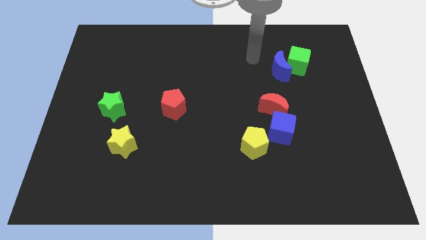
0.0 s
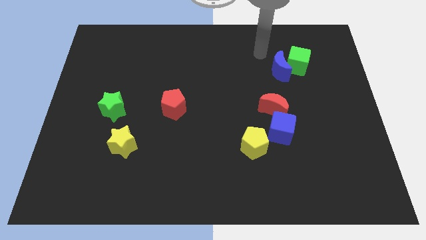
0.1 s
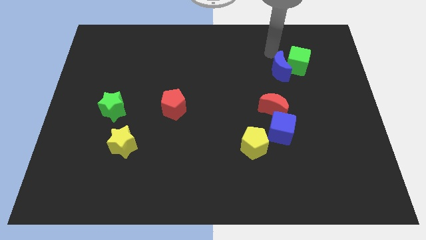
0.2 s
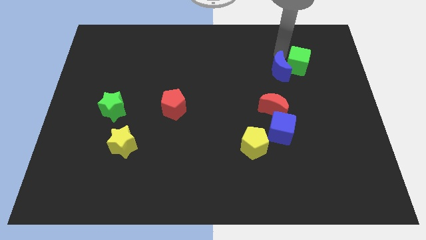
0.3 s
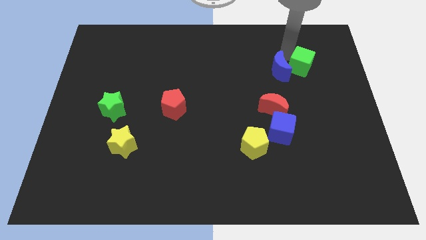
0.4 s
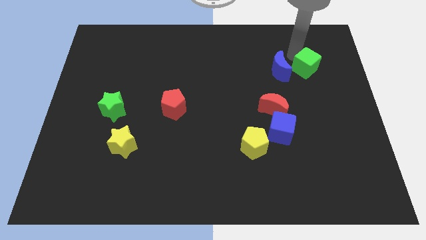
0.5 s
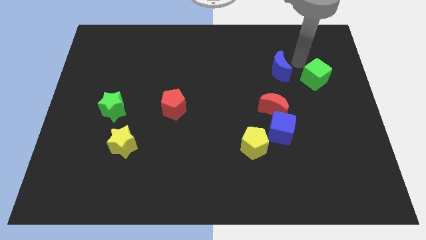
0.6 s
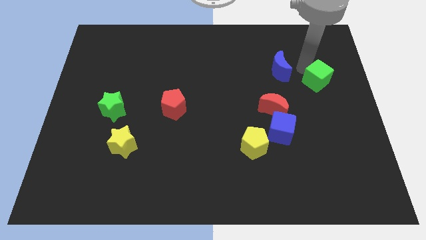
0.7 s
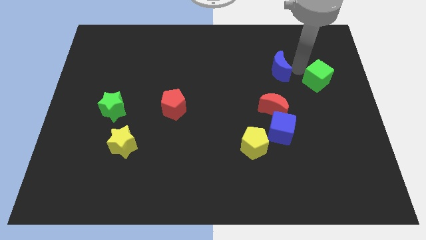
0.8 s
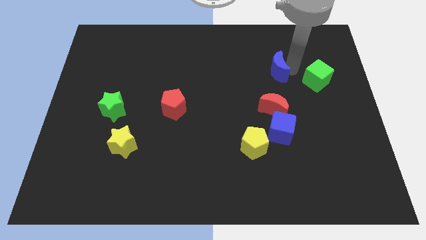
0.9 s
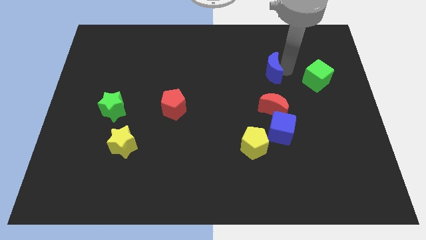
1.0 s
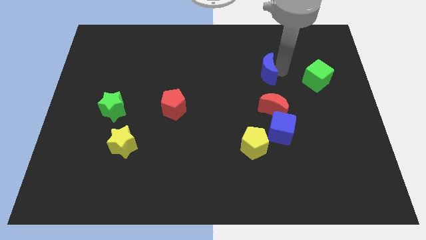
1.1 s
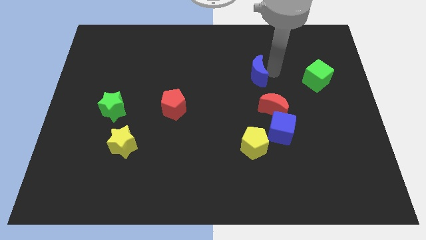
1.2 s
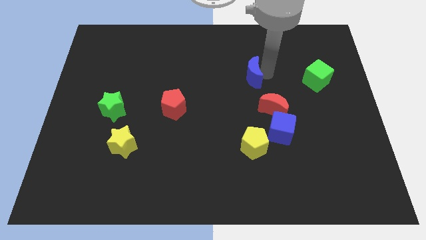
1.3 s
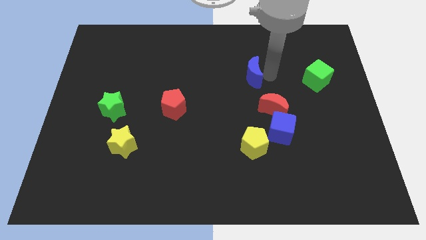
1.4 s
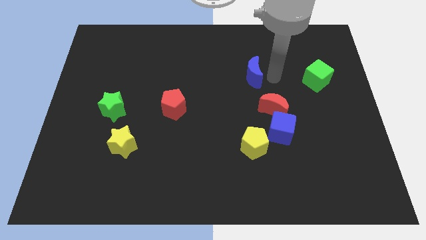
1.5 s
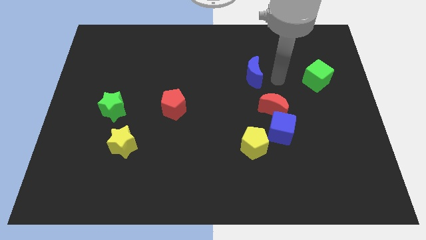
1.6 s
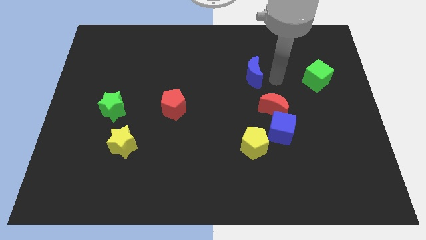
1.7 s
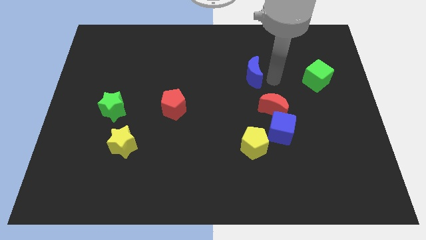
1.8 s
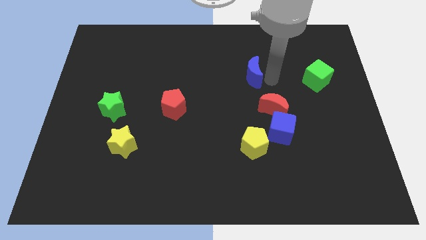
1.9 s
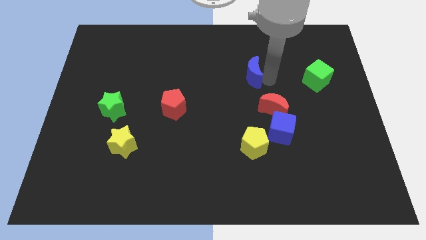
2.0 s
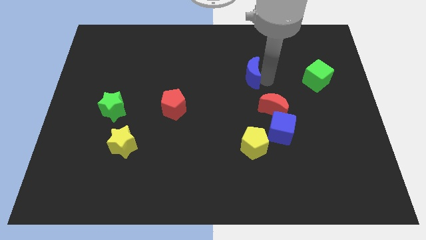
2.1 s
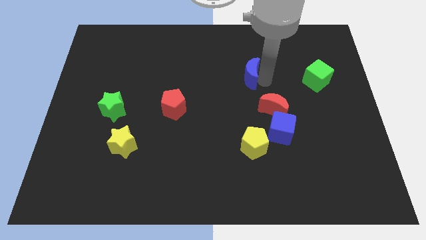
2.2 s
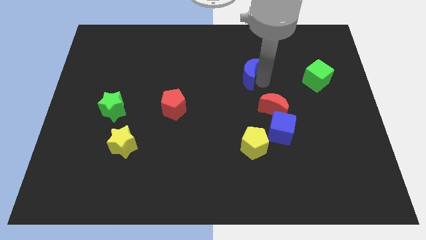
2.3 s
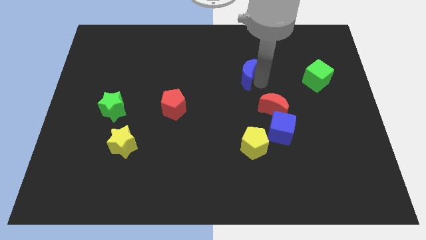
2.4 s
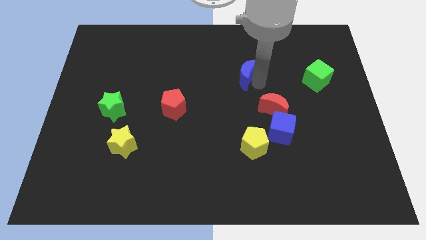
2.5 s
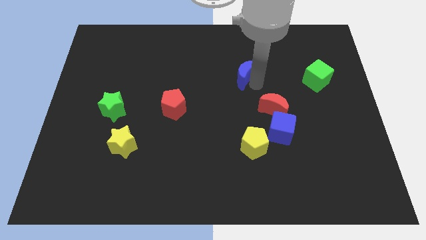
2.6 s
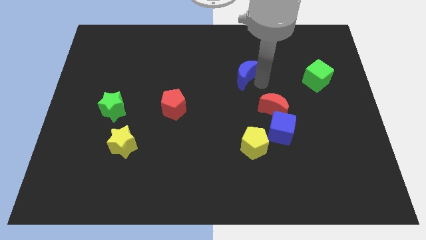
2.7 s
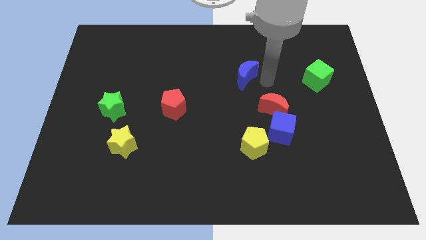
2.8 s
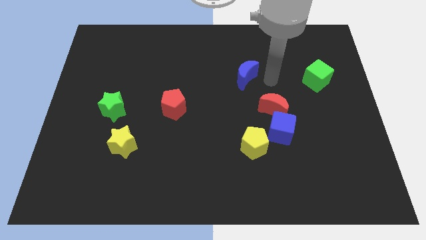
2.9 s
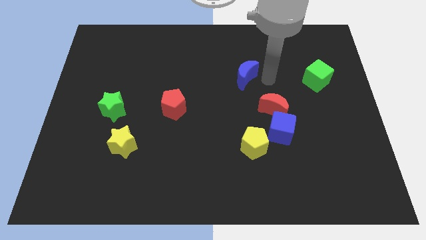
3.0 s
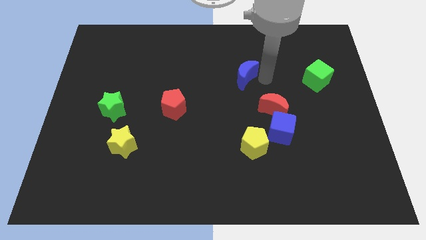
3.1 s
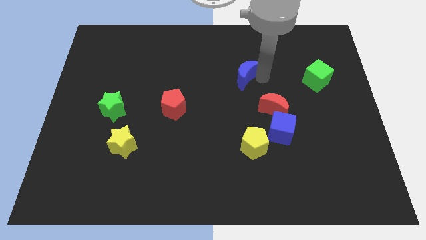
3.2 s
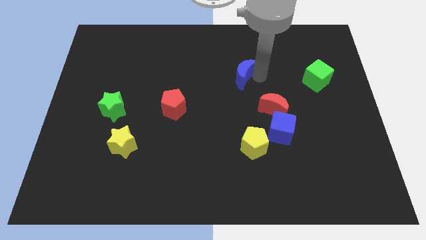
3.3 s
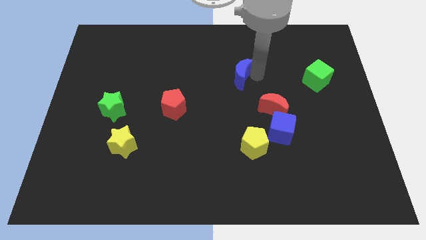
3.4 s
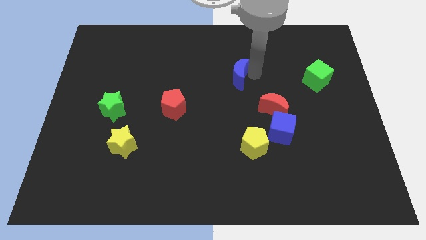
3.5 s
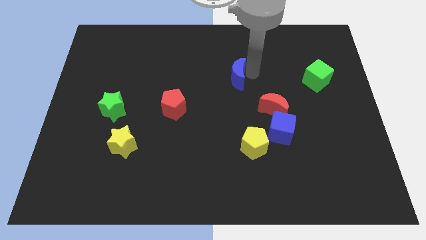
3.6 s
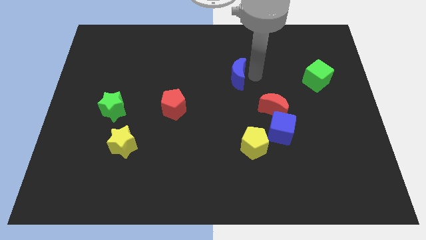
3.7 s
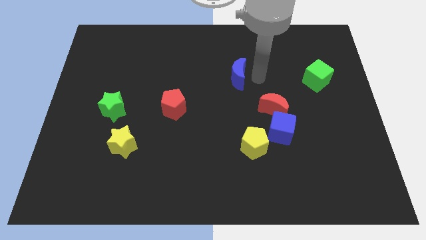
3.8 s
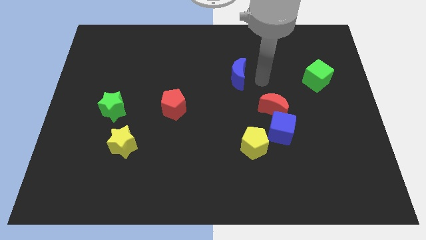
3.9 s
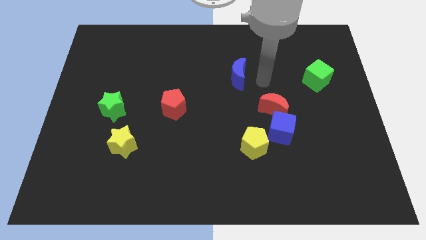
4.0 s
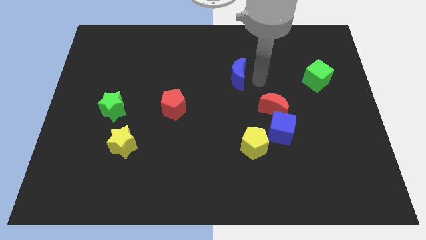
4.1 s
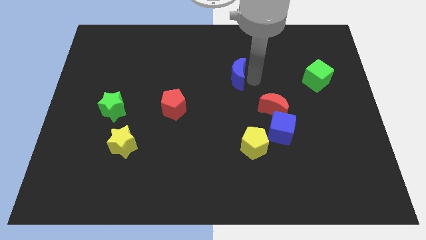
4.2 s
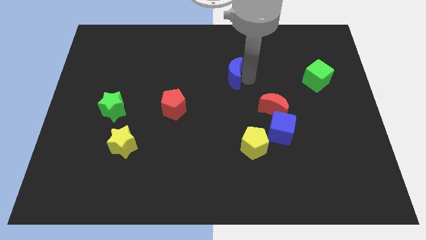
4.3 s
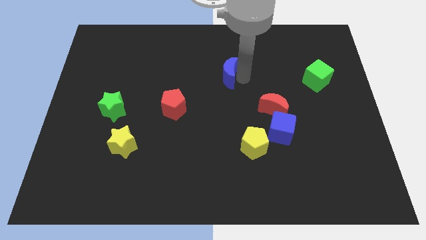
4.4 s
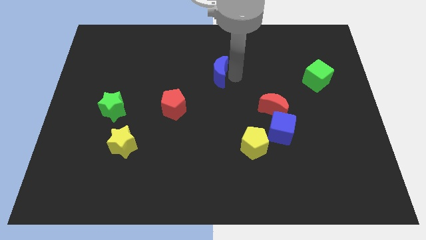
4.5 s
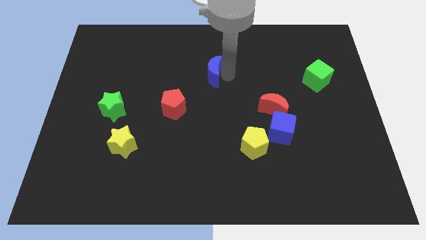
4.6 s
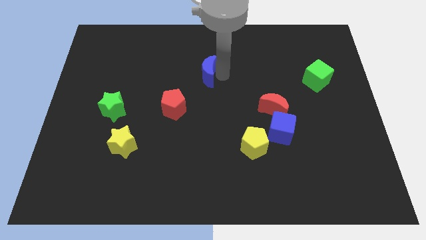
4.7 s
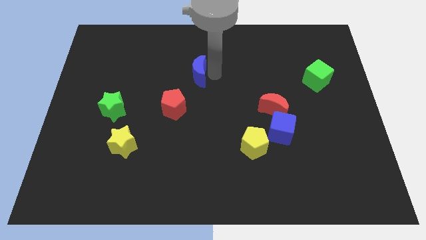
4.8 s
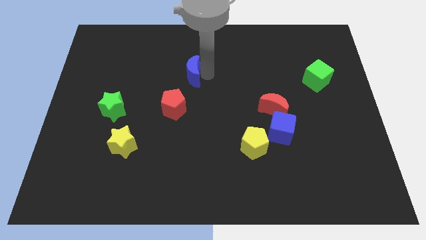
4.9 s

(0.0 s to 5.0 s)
push the blue moon to the top side of the red pentagon

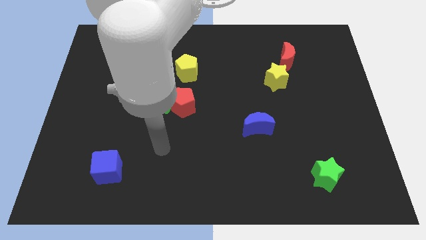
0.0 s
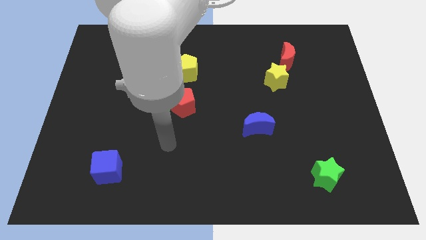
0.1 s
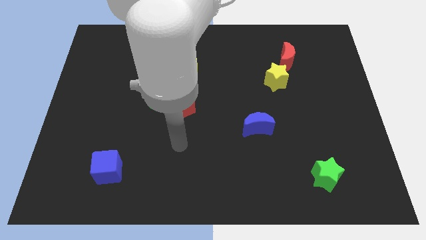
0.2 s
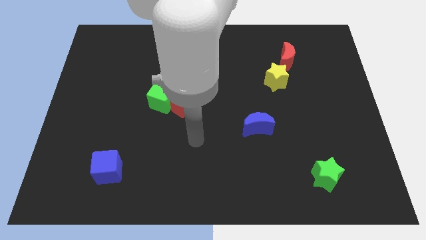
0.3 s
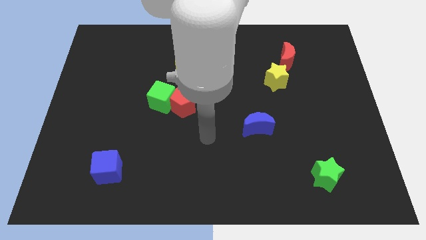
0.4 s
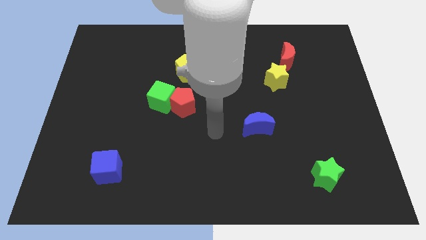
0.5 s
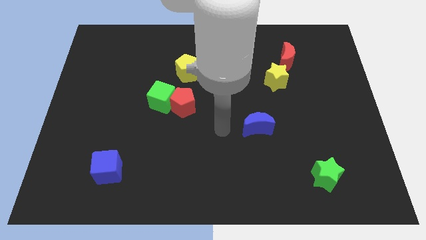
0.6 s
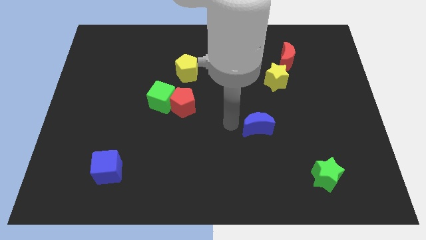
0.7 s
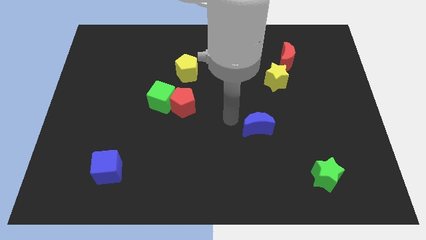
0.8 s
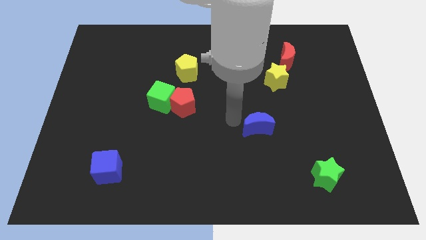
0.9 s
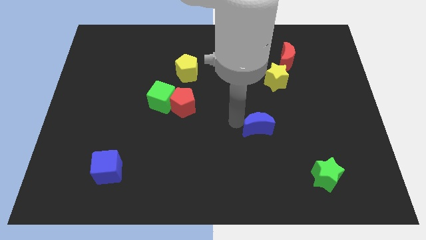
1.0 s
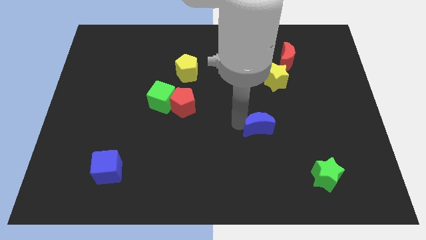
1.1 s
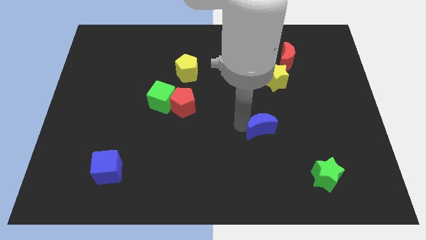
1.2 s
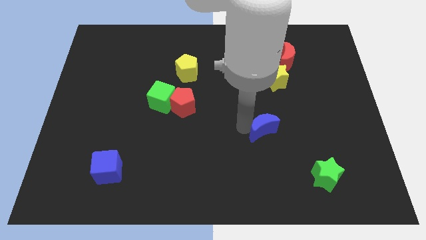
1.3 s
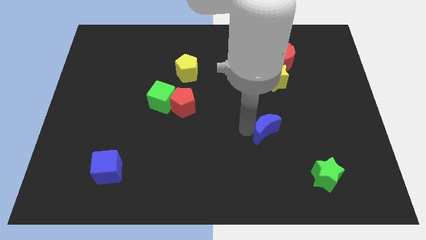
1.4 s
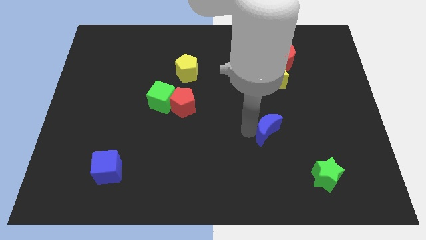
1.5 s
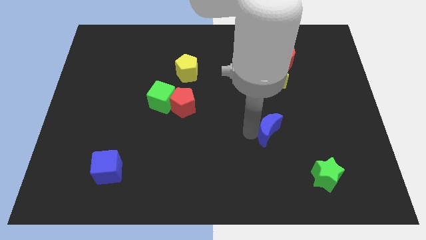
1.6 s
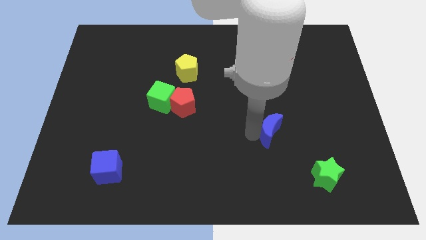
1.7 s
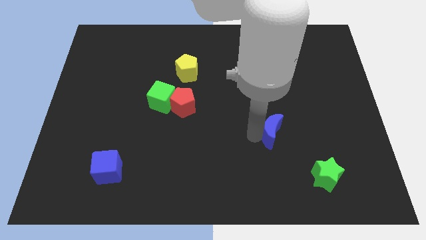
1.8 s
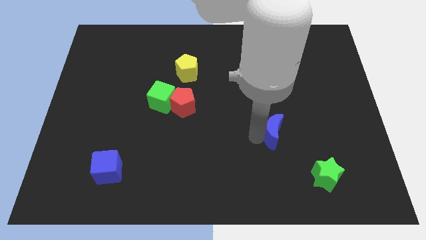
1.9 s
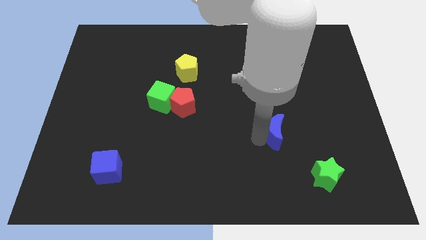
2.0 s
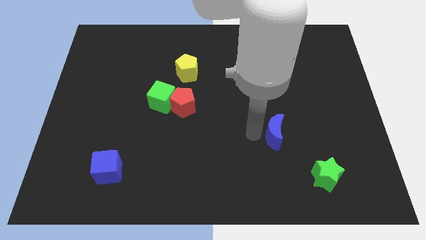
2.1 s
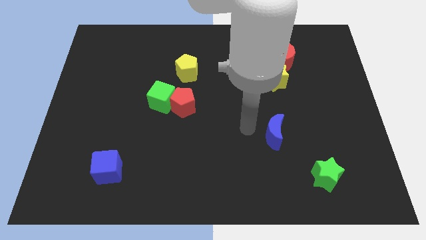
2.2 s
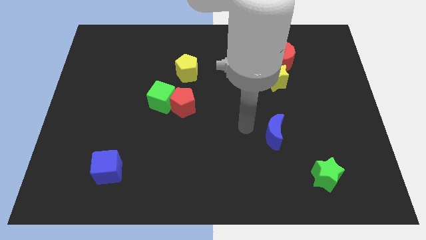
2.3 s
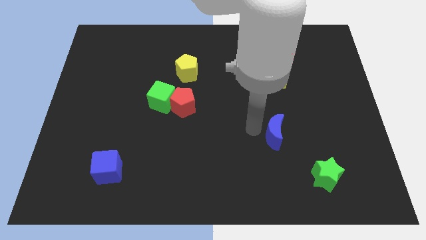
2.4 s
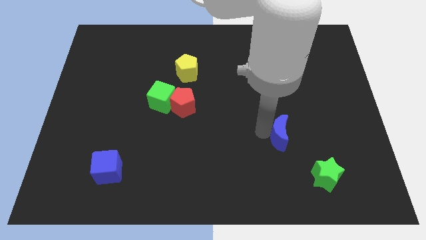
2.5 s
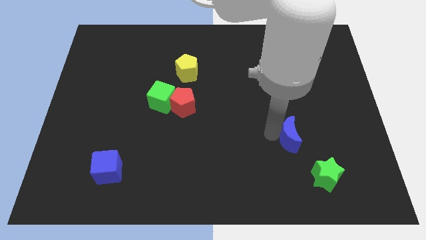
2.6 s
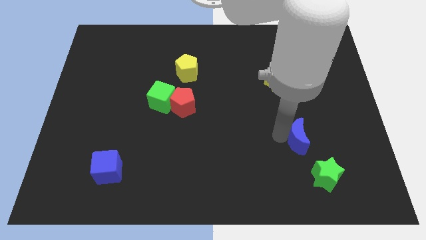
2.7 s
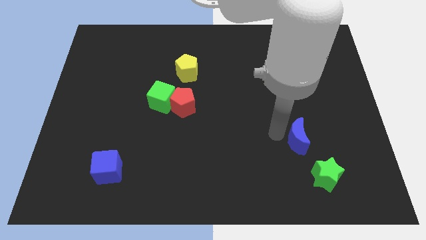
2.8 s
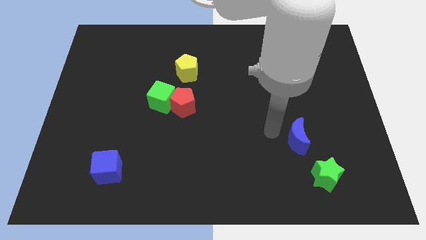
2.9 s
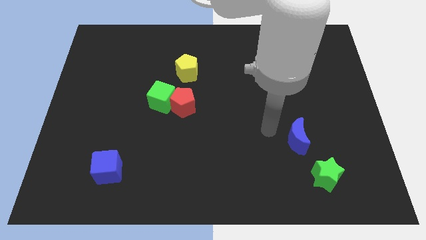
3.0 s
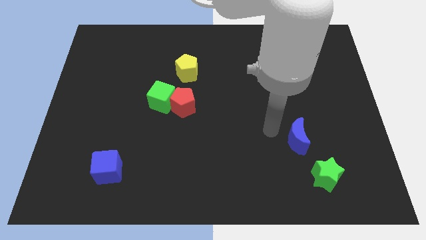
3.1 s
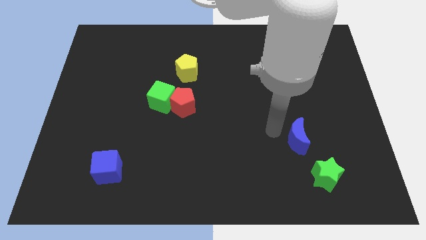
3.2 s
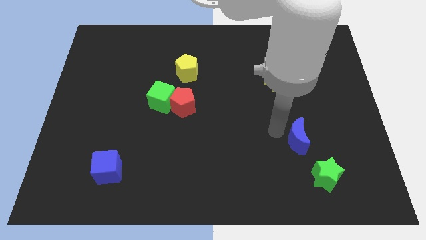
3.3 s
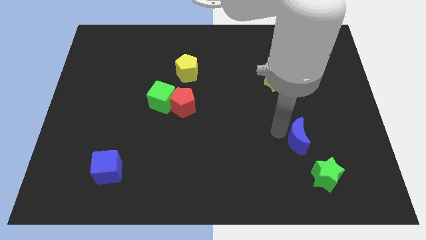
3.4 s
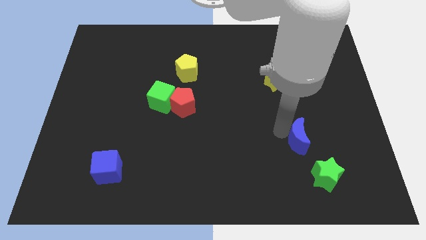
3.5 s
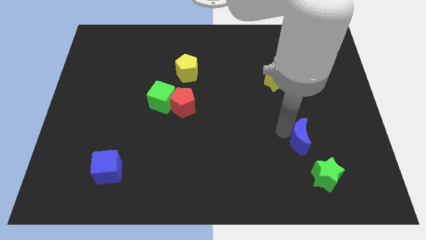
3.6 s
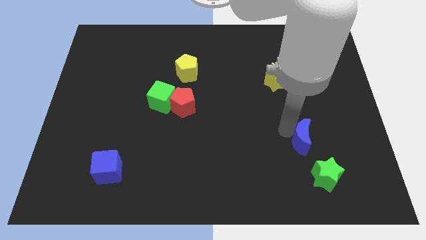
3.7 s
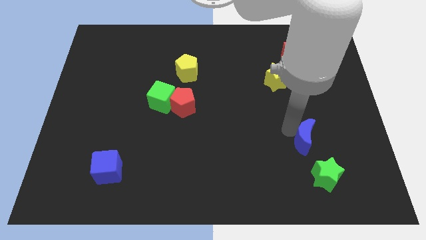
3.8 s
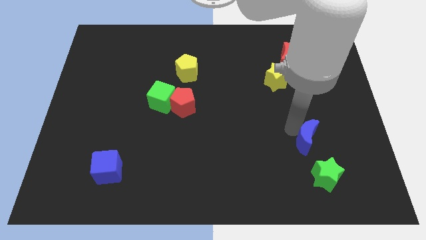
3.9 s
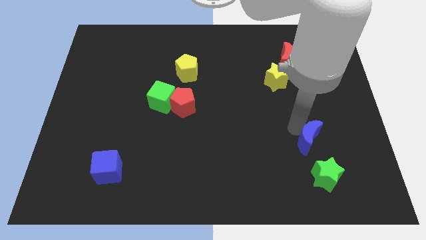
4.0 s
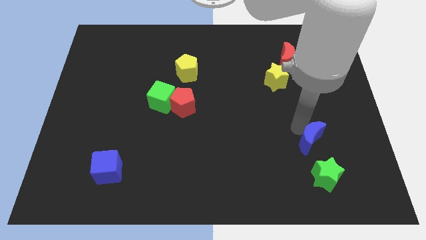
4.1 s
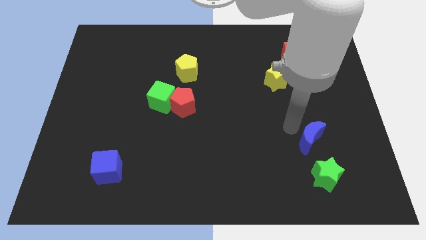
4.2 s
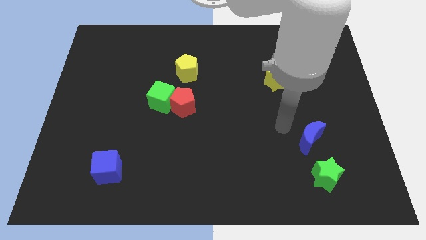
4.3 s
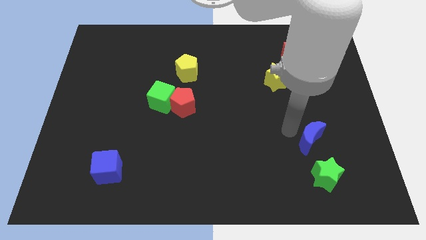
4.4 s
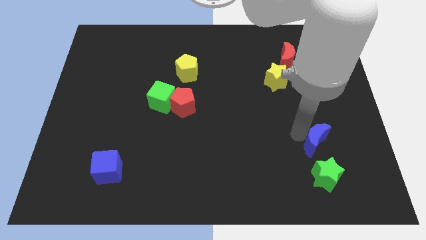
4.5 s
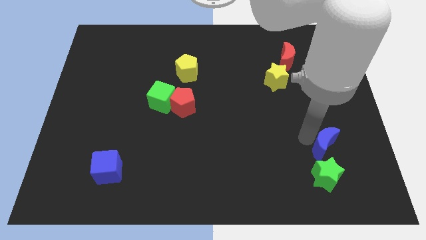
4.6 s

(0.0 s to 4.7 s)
slide the blue moon to the top right side of the green star
